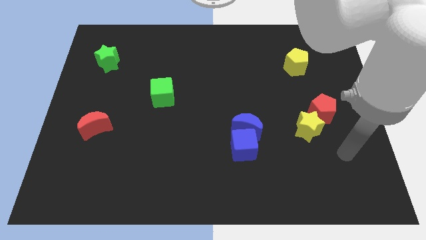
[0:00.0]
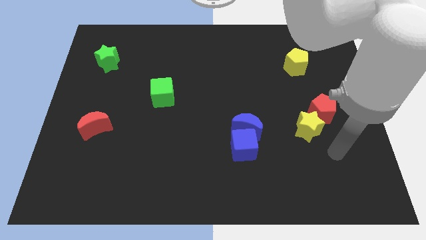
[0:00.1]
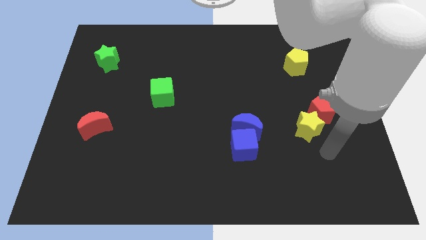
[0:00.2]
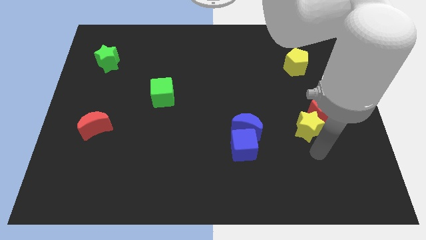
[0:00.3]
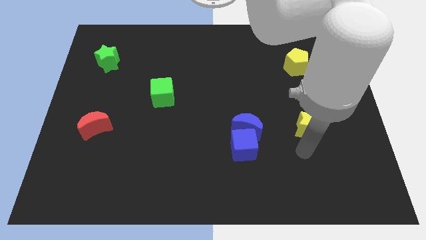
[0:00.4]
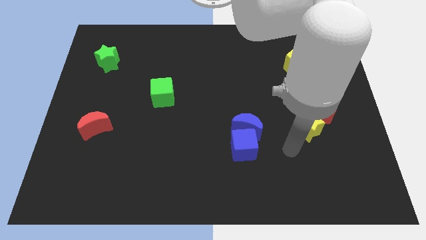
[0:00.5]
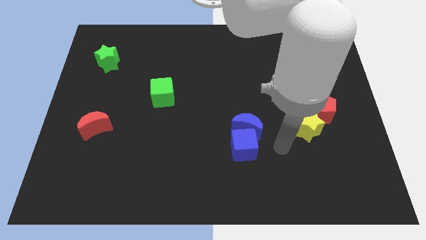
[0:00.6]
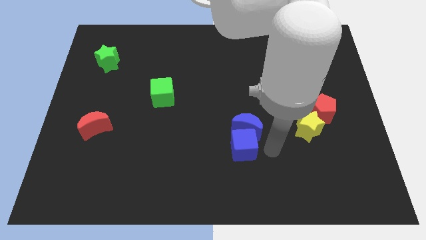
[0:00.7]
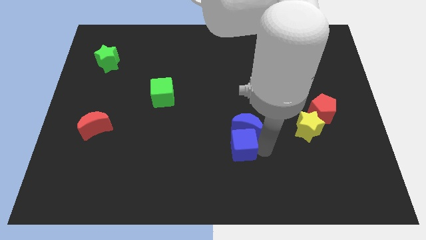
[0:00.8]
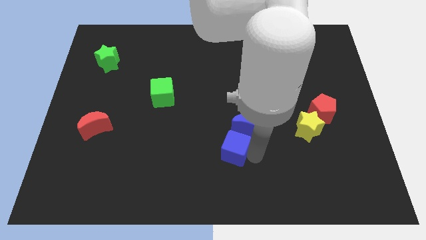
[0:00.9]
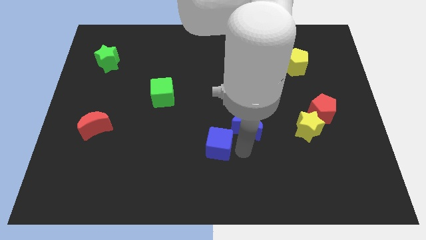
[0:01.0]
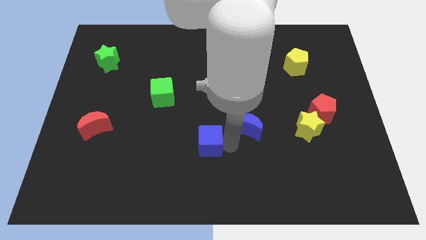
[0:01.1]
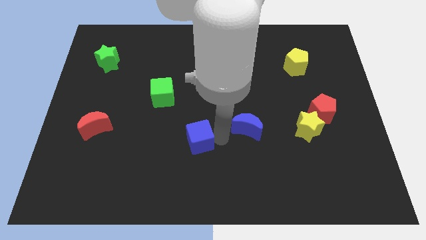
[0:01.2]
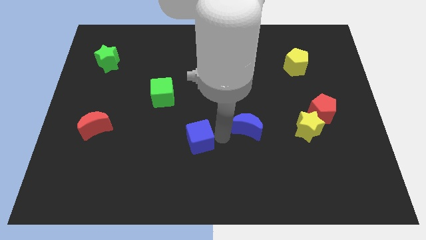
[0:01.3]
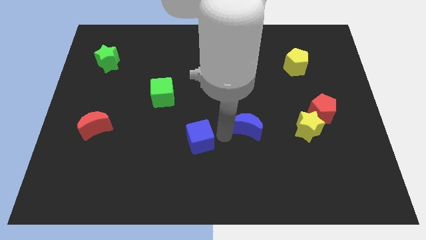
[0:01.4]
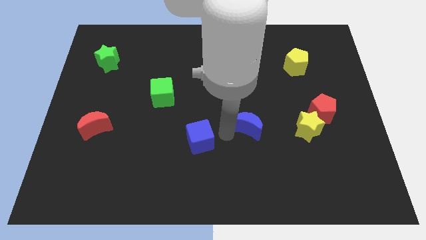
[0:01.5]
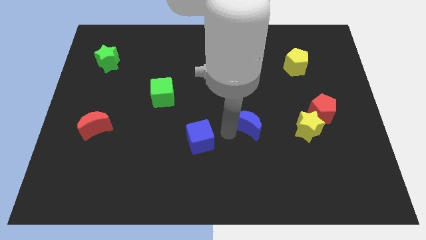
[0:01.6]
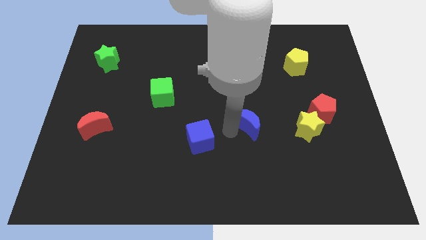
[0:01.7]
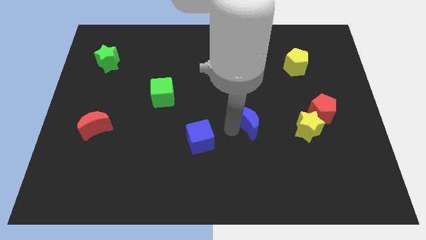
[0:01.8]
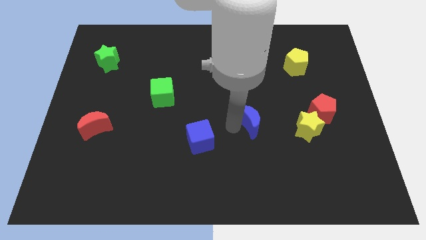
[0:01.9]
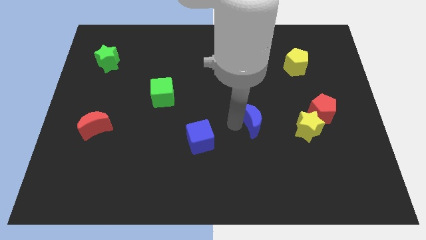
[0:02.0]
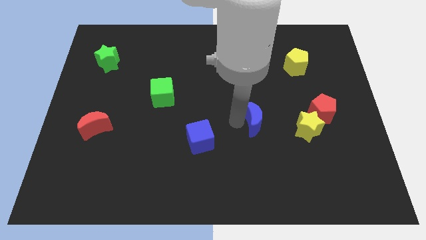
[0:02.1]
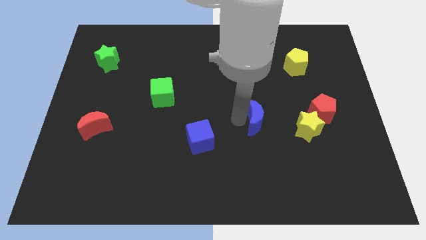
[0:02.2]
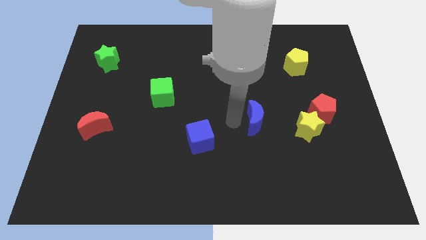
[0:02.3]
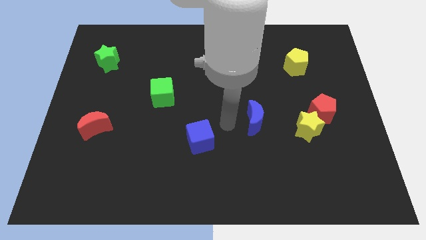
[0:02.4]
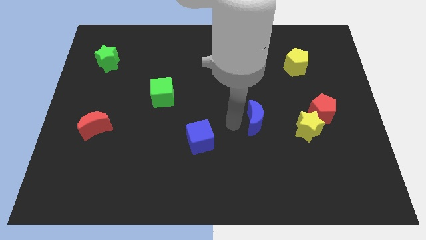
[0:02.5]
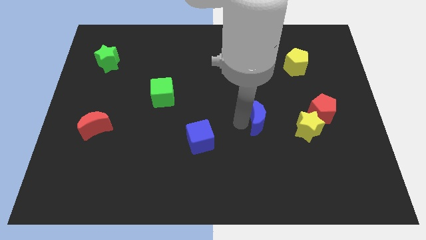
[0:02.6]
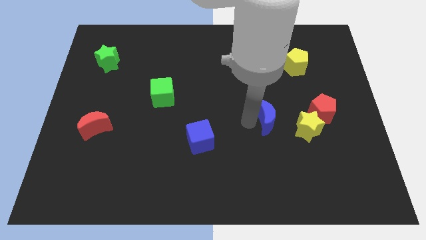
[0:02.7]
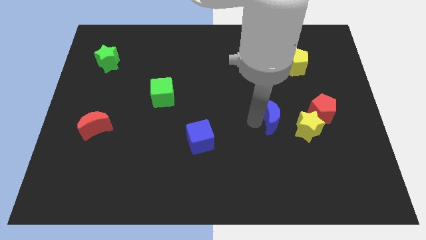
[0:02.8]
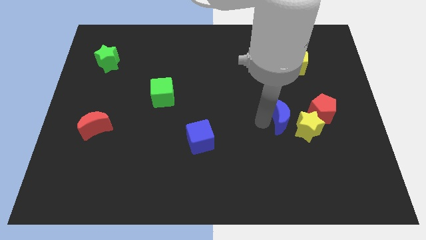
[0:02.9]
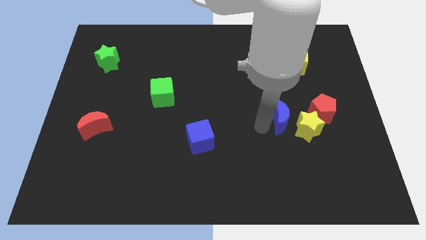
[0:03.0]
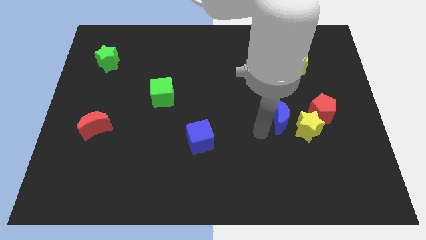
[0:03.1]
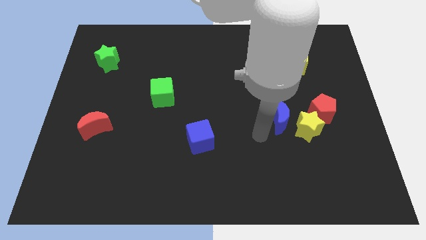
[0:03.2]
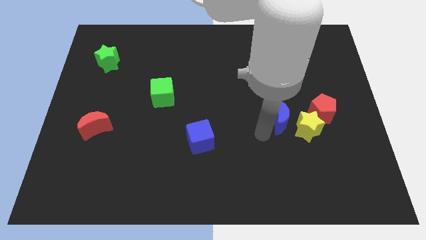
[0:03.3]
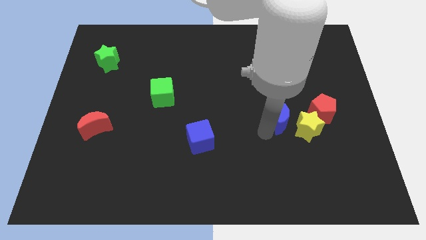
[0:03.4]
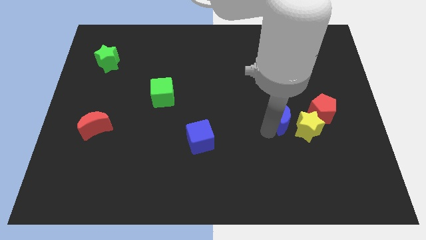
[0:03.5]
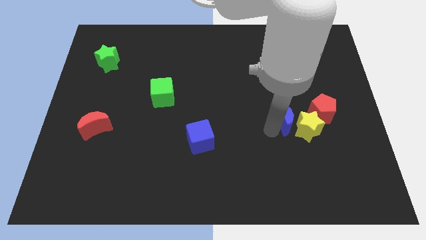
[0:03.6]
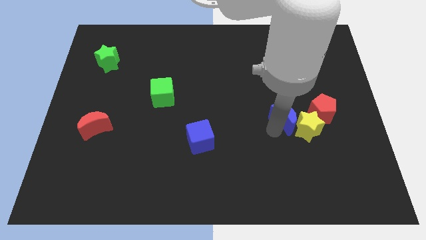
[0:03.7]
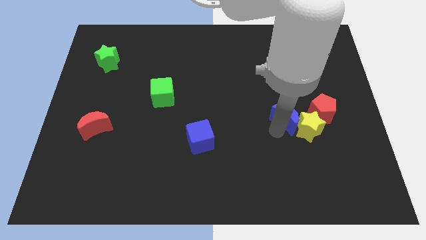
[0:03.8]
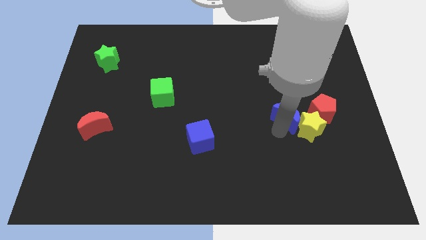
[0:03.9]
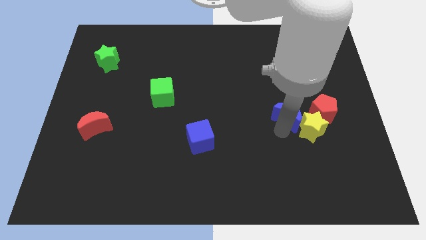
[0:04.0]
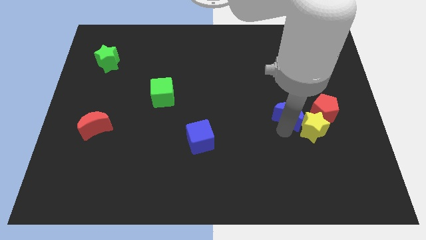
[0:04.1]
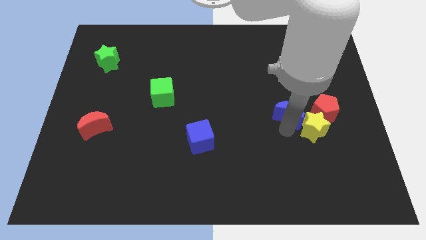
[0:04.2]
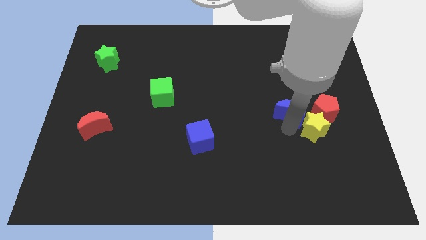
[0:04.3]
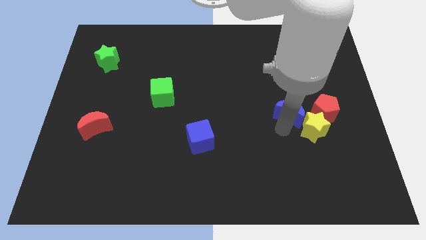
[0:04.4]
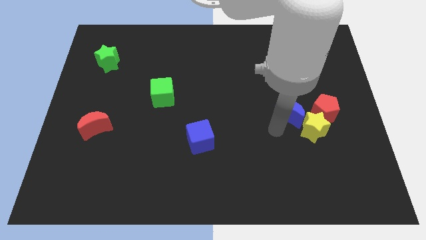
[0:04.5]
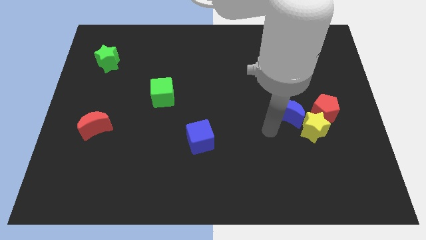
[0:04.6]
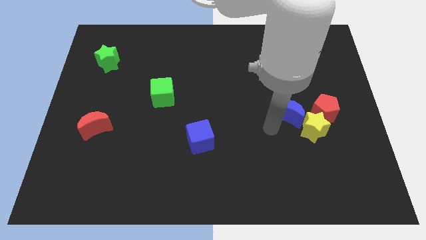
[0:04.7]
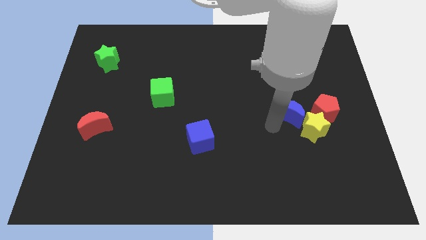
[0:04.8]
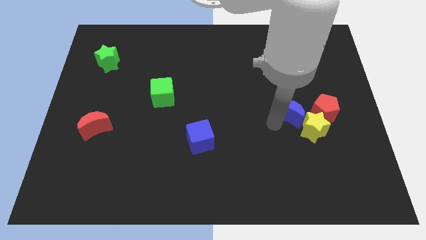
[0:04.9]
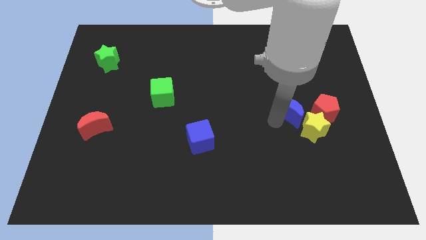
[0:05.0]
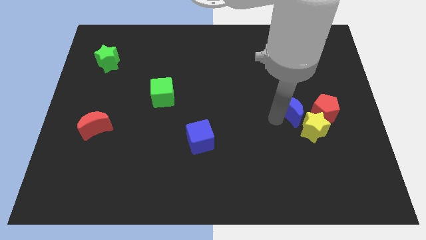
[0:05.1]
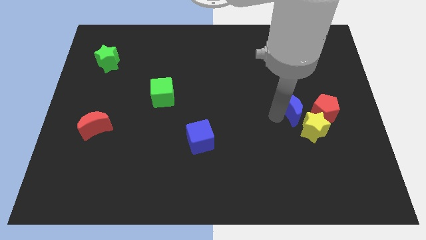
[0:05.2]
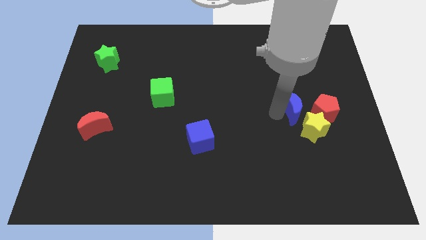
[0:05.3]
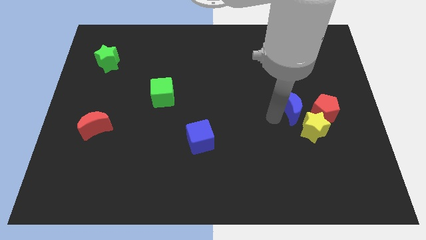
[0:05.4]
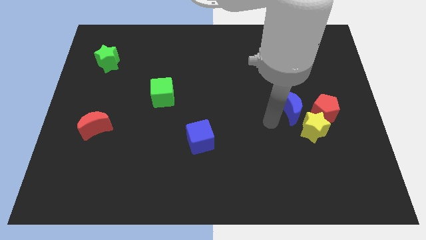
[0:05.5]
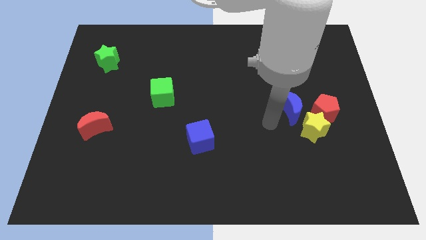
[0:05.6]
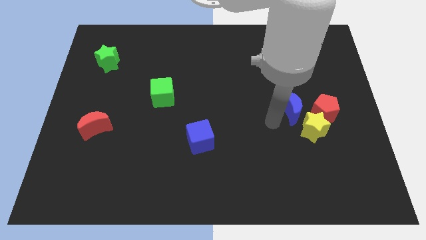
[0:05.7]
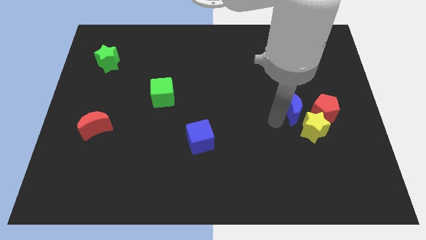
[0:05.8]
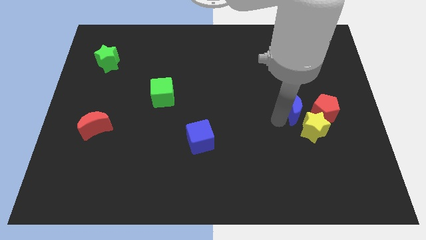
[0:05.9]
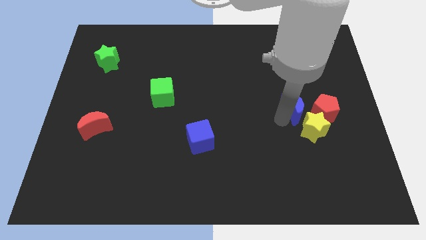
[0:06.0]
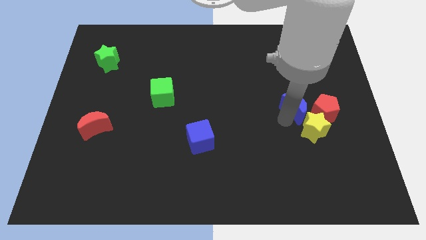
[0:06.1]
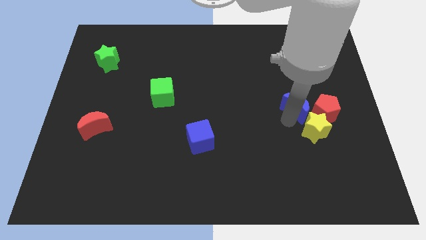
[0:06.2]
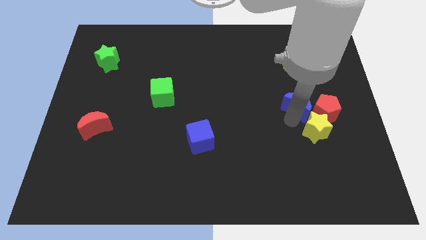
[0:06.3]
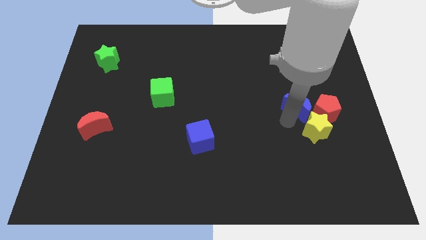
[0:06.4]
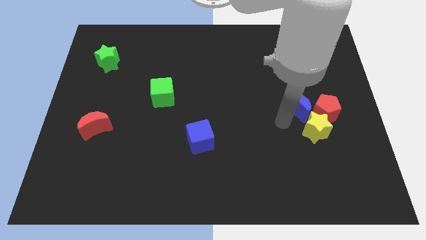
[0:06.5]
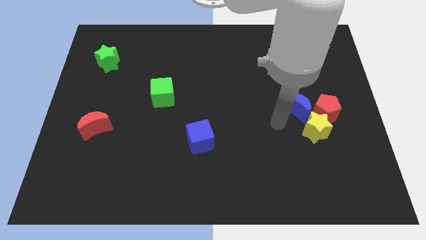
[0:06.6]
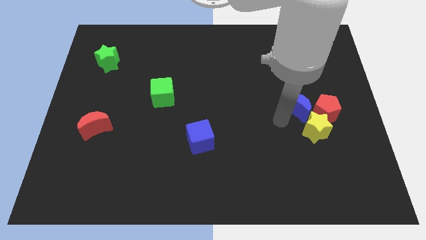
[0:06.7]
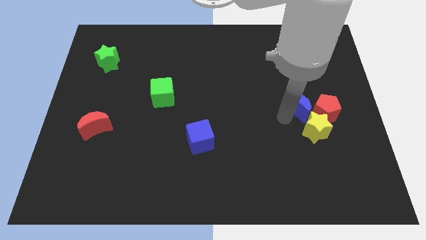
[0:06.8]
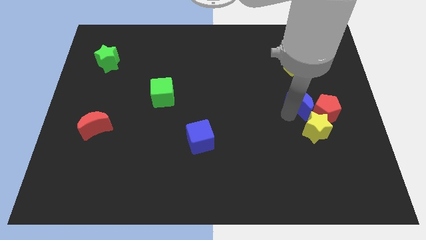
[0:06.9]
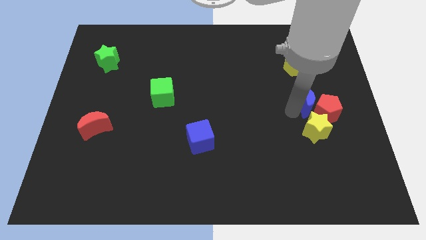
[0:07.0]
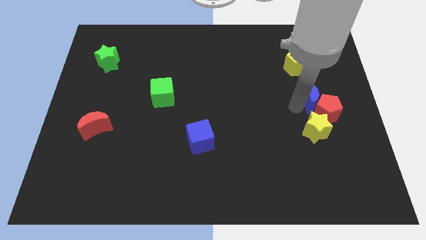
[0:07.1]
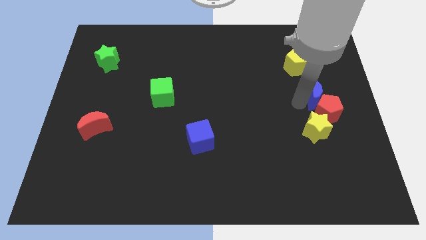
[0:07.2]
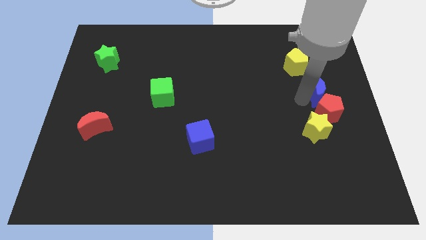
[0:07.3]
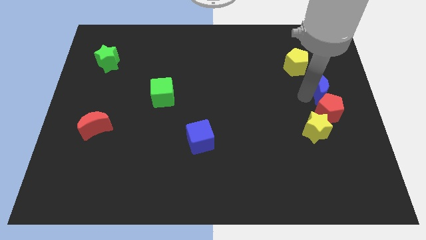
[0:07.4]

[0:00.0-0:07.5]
put the blue moon to the right side
